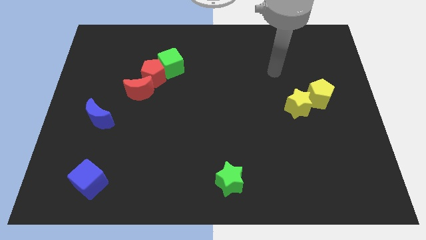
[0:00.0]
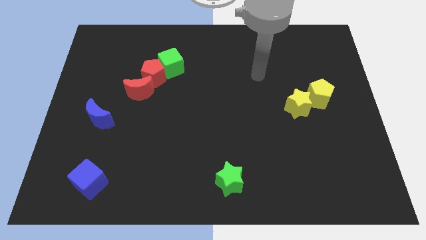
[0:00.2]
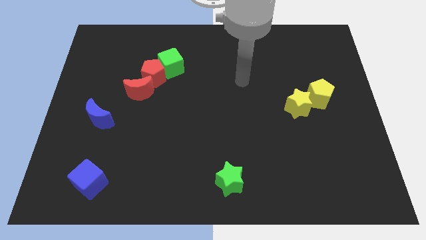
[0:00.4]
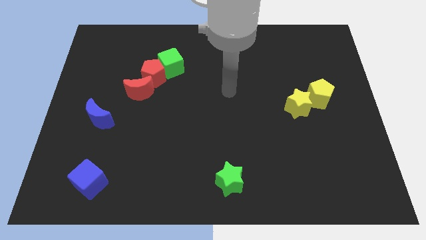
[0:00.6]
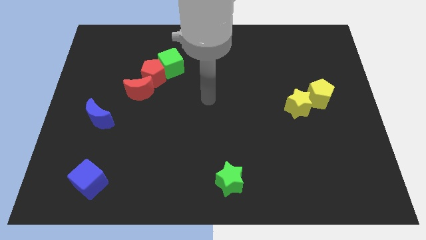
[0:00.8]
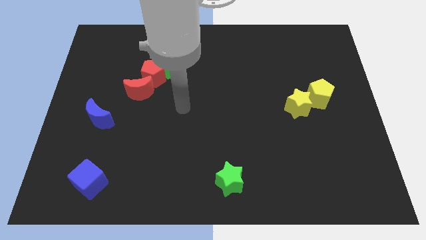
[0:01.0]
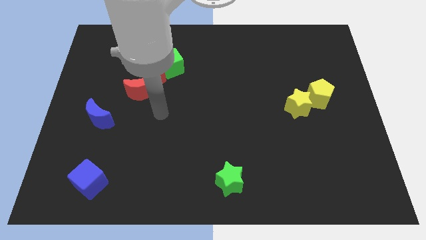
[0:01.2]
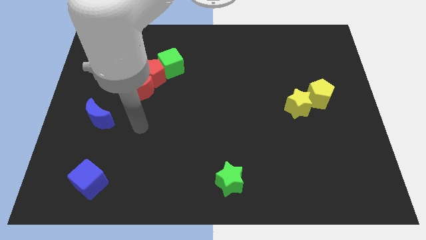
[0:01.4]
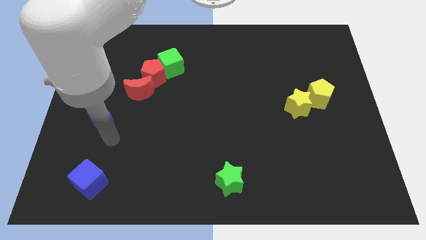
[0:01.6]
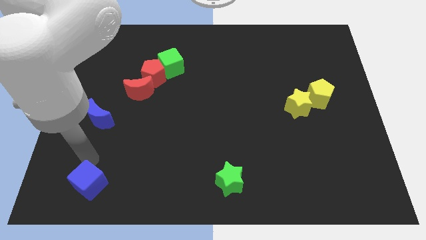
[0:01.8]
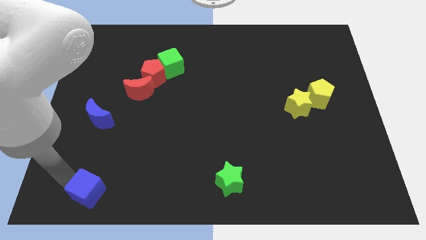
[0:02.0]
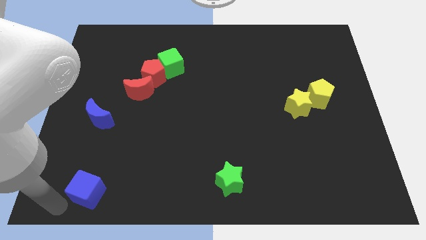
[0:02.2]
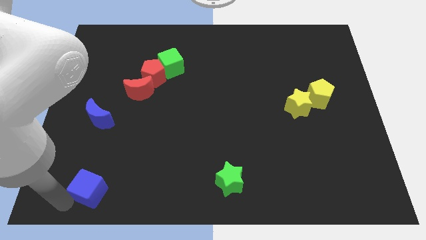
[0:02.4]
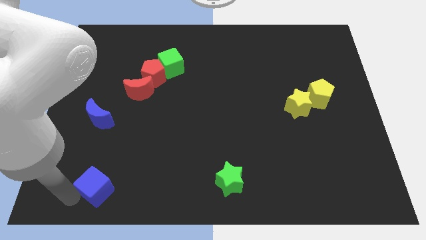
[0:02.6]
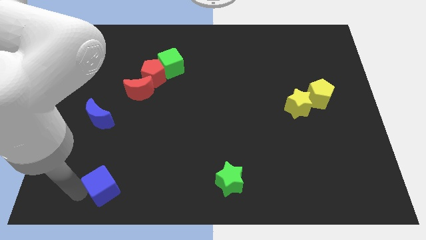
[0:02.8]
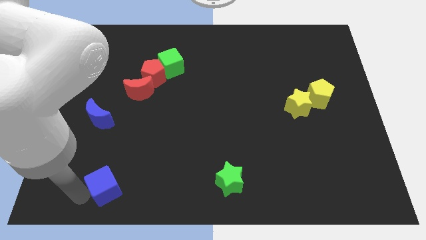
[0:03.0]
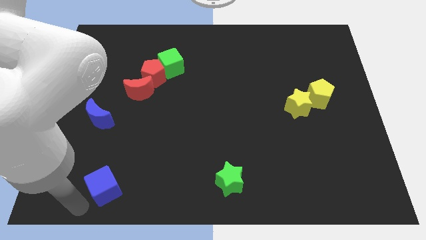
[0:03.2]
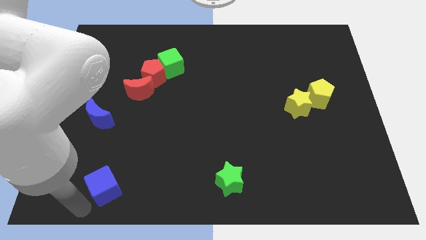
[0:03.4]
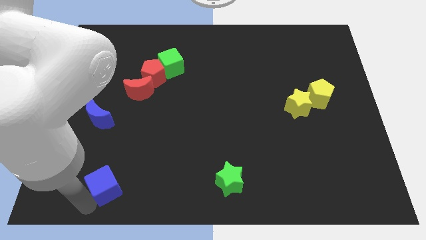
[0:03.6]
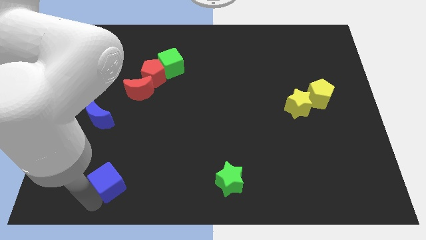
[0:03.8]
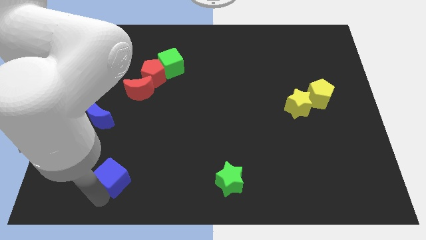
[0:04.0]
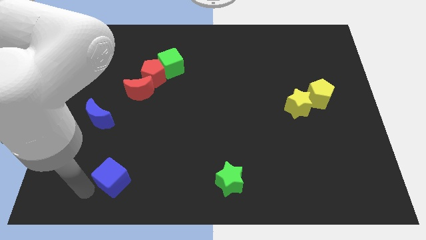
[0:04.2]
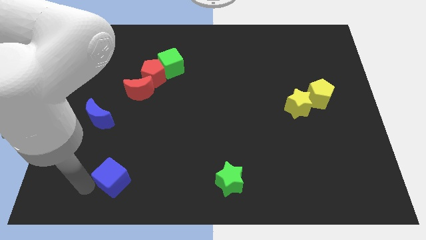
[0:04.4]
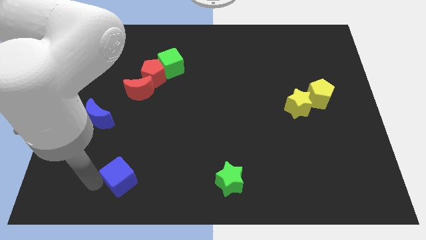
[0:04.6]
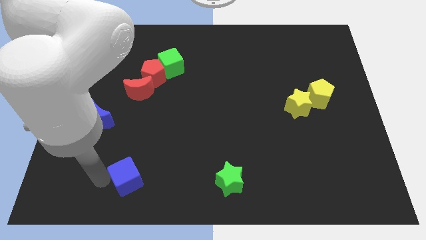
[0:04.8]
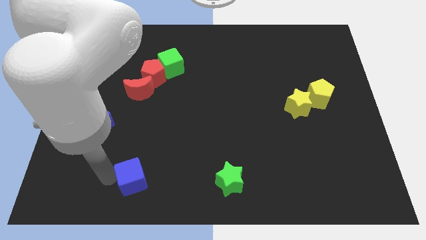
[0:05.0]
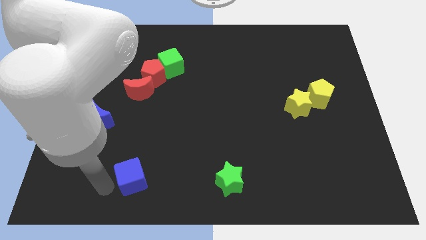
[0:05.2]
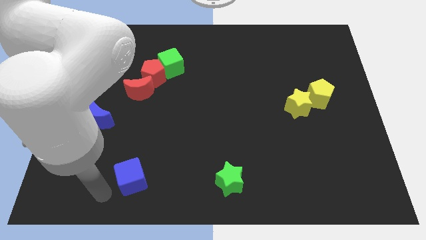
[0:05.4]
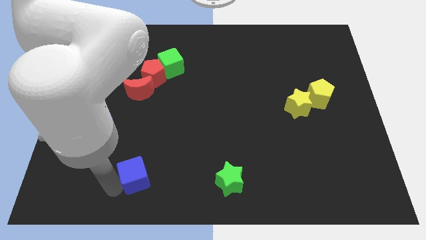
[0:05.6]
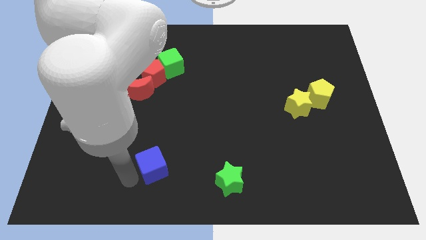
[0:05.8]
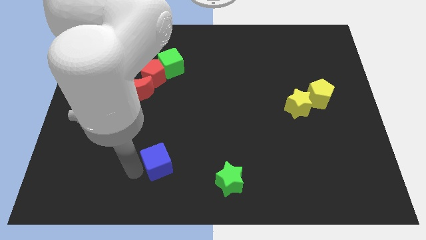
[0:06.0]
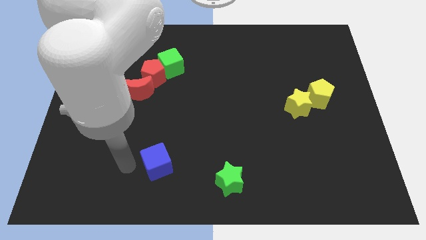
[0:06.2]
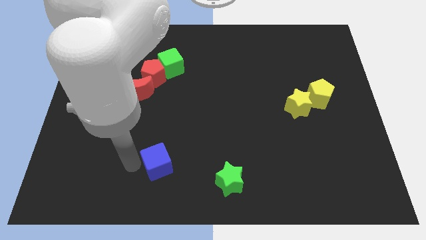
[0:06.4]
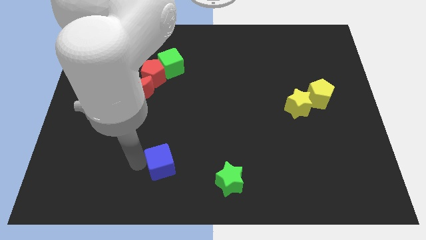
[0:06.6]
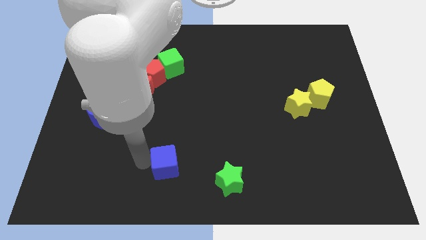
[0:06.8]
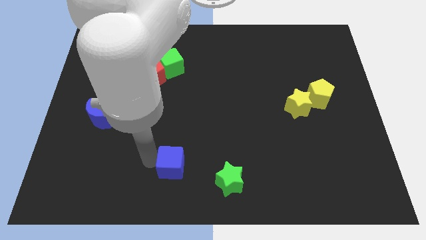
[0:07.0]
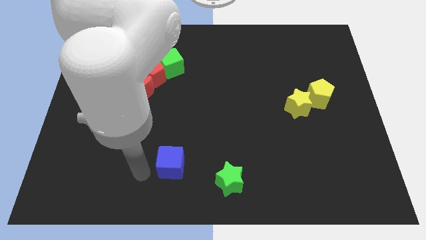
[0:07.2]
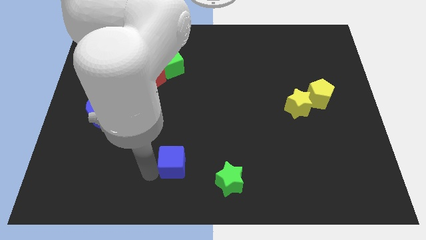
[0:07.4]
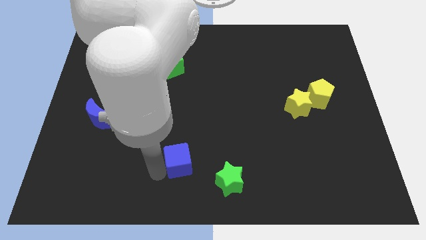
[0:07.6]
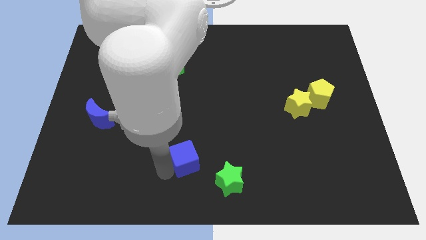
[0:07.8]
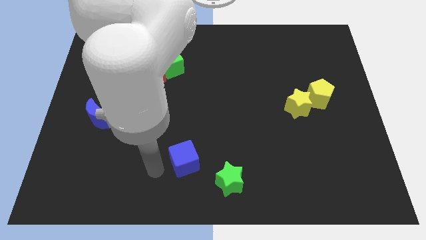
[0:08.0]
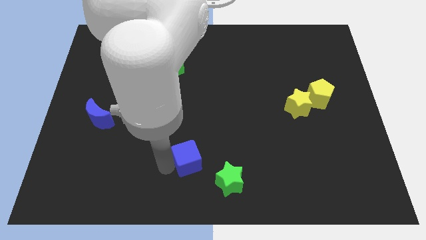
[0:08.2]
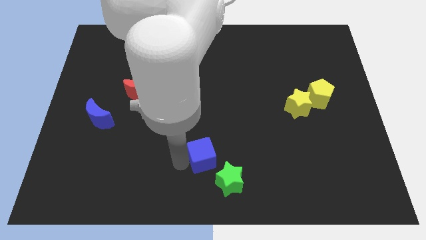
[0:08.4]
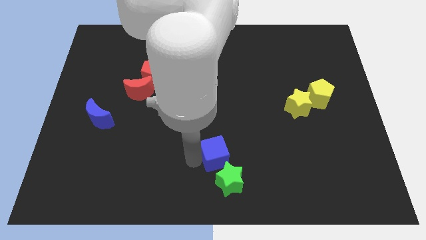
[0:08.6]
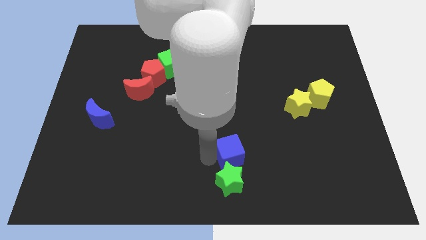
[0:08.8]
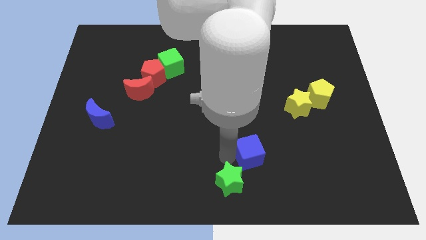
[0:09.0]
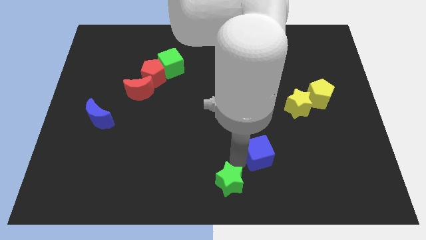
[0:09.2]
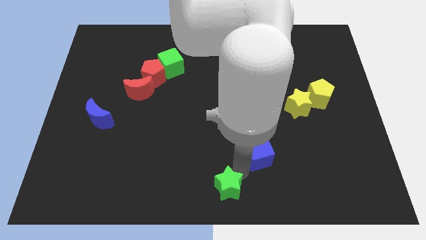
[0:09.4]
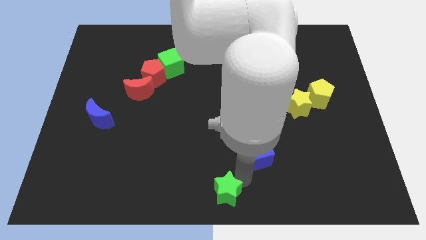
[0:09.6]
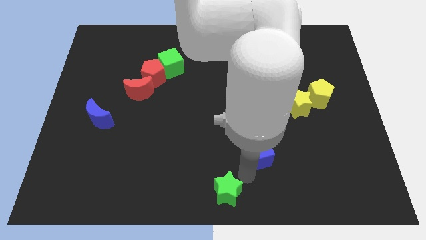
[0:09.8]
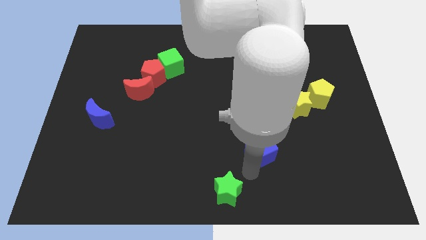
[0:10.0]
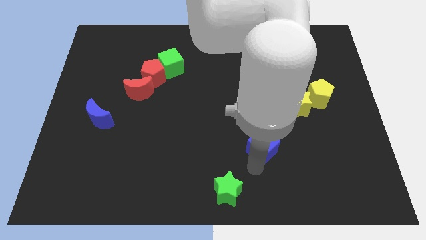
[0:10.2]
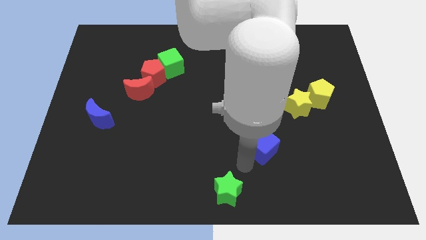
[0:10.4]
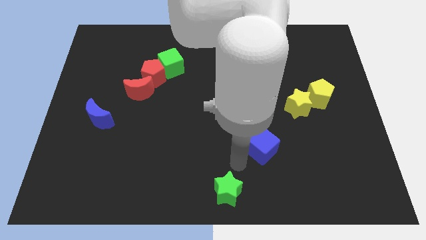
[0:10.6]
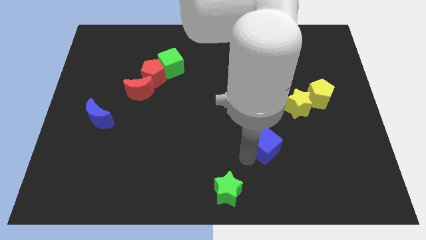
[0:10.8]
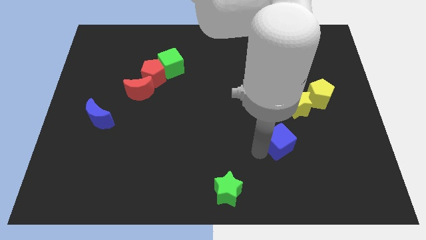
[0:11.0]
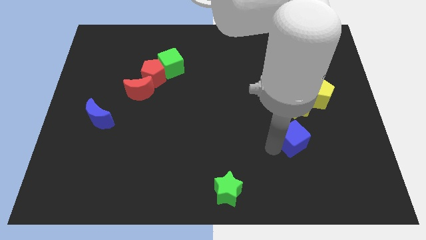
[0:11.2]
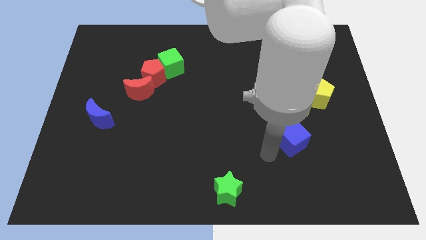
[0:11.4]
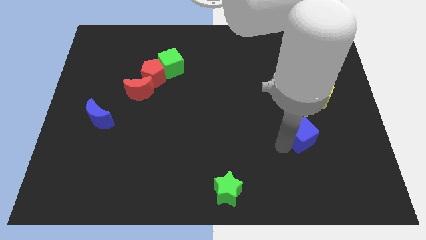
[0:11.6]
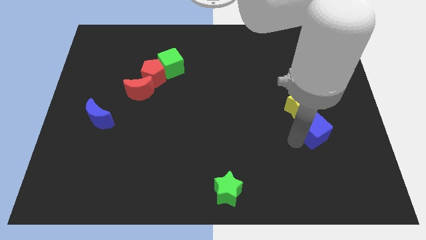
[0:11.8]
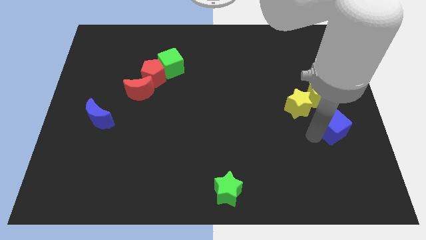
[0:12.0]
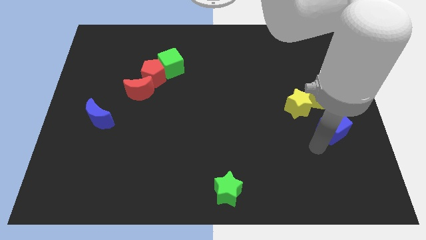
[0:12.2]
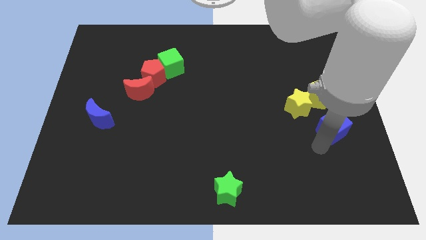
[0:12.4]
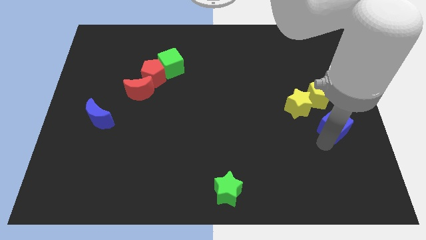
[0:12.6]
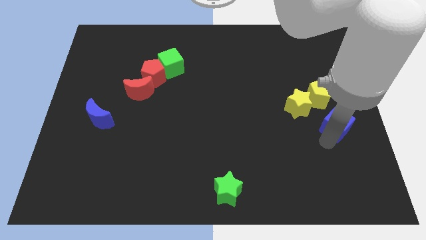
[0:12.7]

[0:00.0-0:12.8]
put the blue cube to the right side of the board

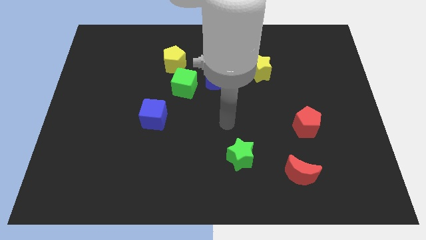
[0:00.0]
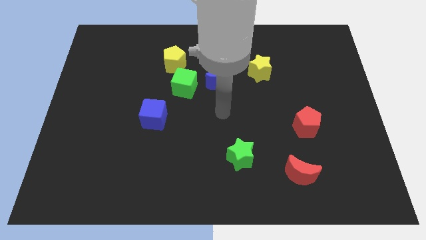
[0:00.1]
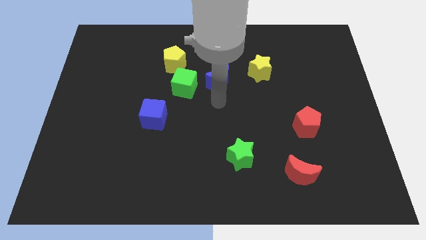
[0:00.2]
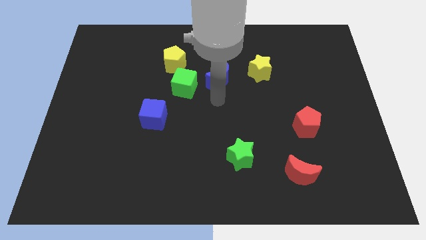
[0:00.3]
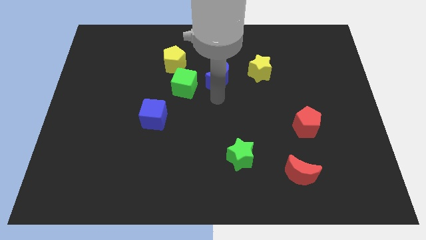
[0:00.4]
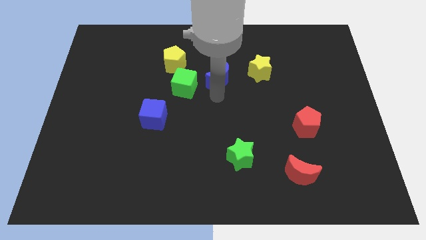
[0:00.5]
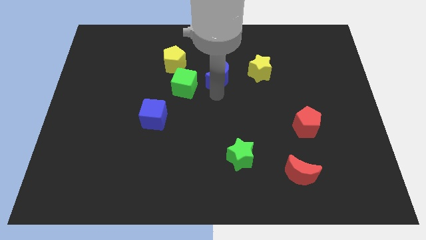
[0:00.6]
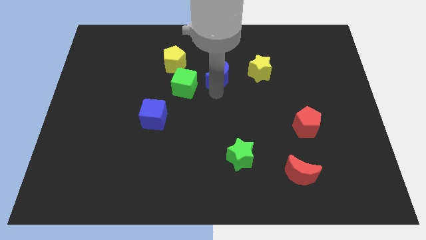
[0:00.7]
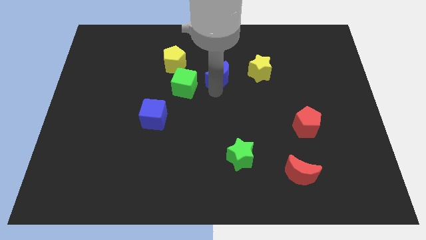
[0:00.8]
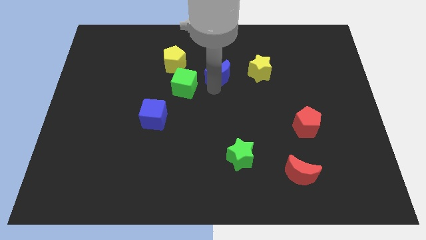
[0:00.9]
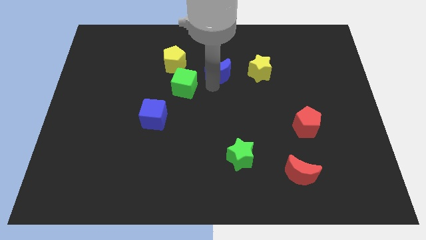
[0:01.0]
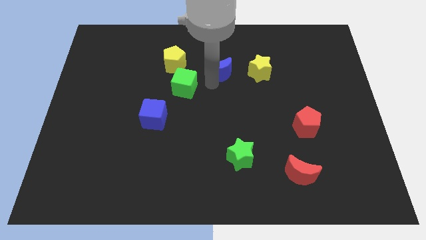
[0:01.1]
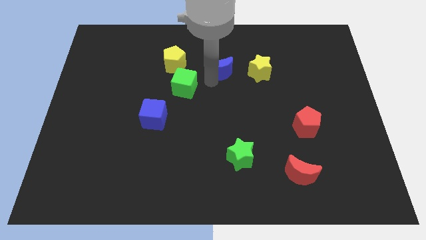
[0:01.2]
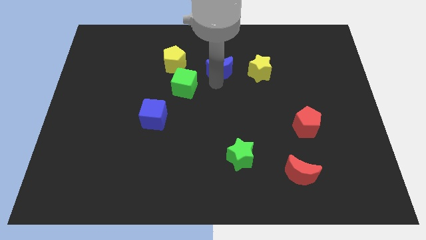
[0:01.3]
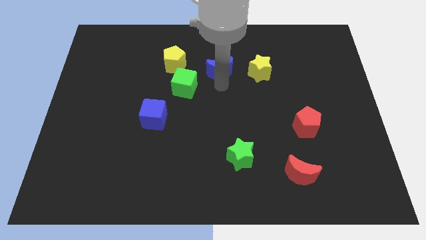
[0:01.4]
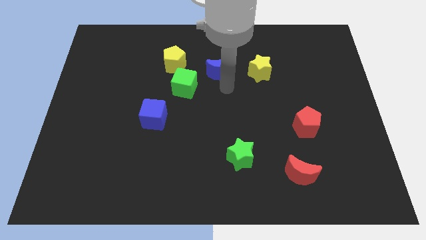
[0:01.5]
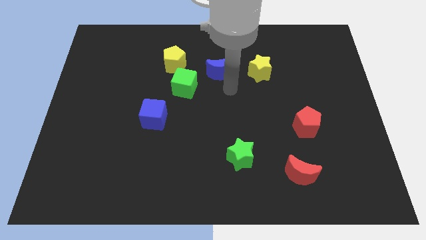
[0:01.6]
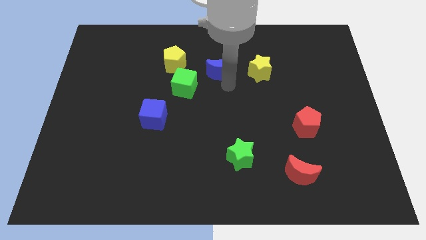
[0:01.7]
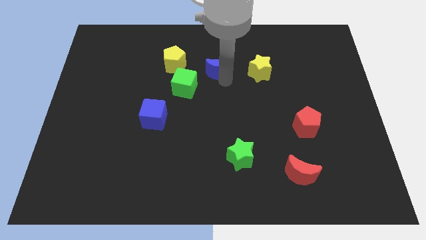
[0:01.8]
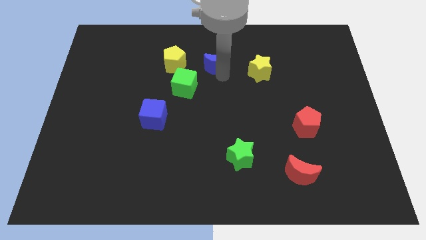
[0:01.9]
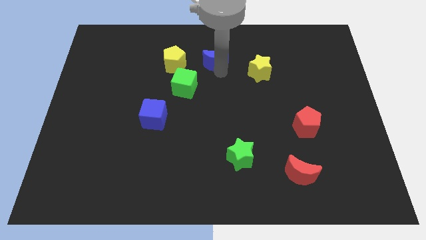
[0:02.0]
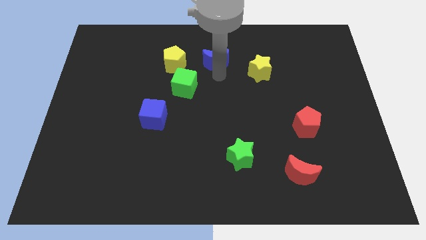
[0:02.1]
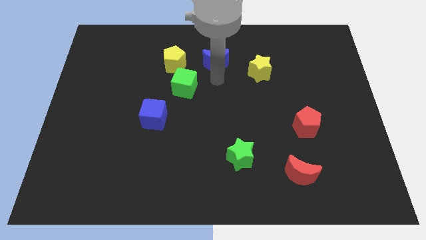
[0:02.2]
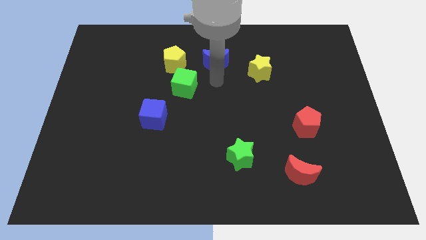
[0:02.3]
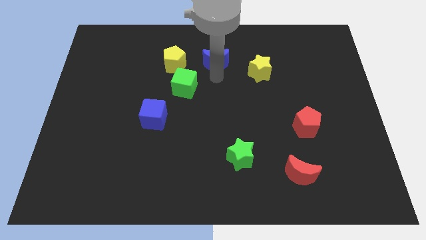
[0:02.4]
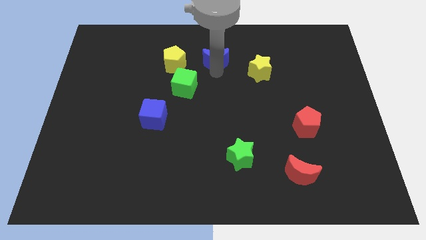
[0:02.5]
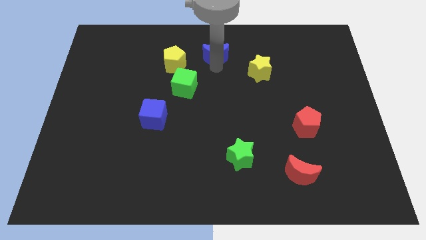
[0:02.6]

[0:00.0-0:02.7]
slide the blue moon to the top side
